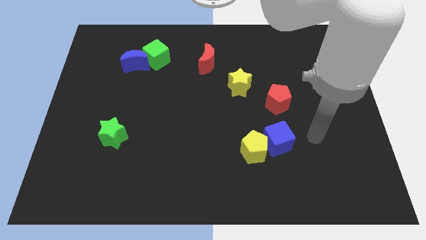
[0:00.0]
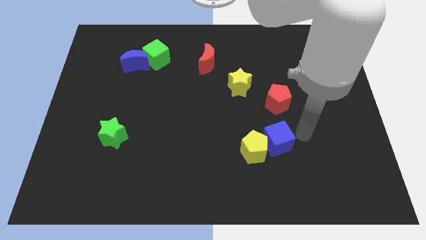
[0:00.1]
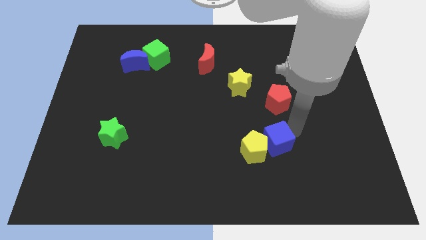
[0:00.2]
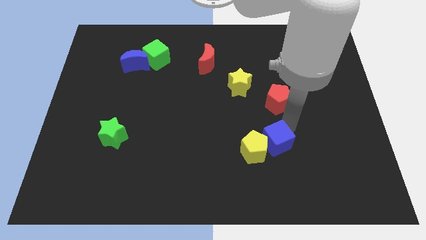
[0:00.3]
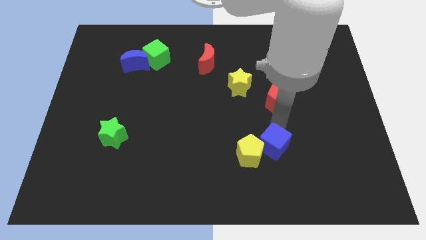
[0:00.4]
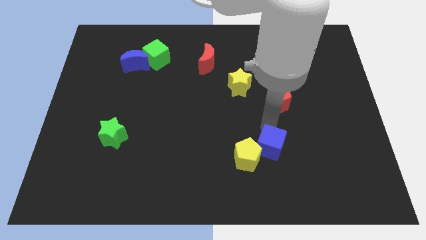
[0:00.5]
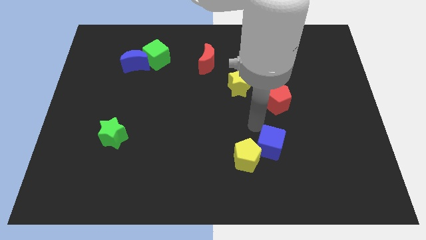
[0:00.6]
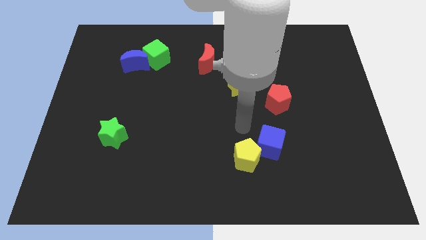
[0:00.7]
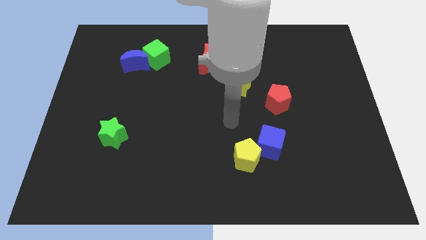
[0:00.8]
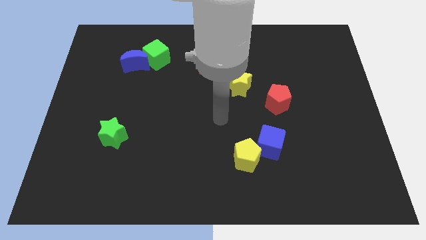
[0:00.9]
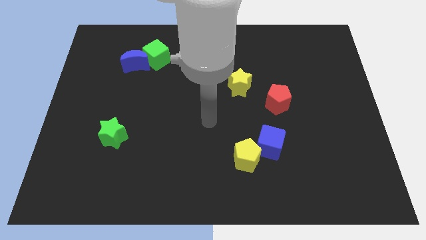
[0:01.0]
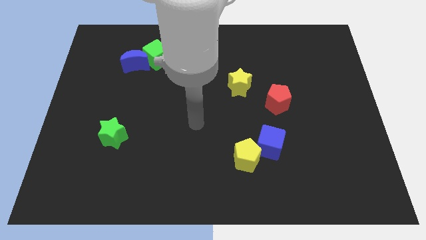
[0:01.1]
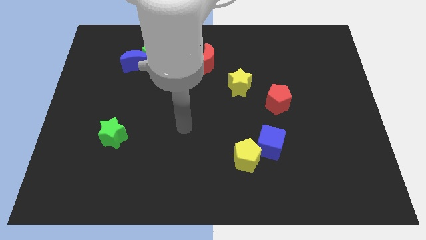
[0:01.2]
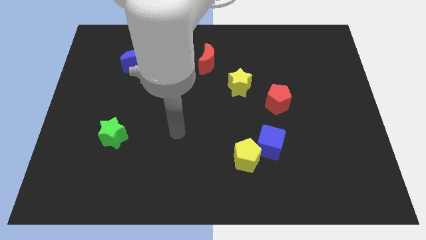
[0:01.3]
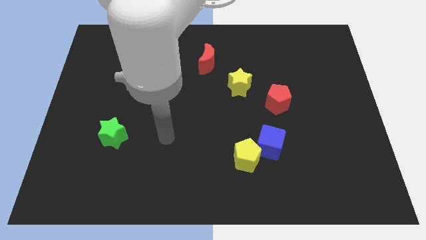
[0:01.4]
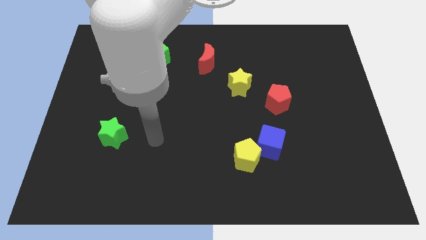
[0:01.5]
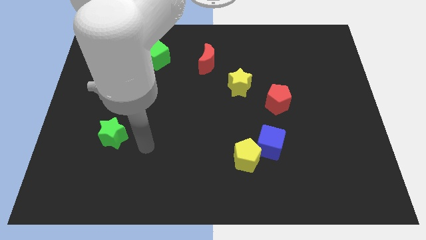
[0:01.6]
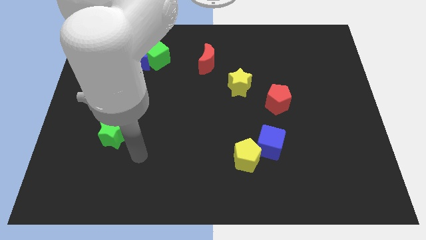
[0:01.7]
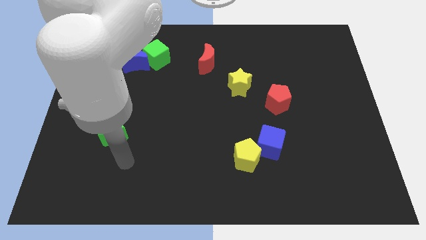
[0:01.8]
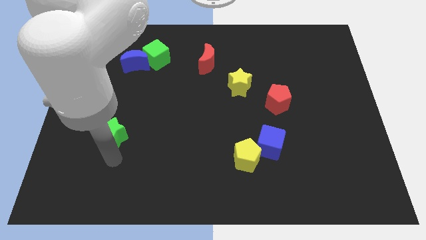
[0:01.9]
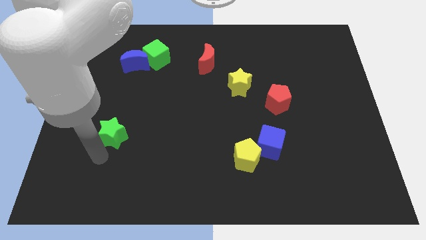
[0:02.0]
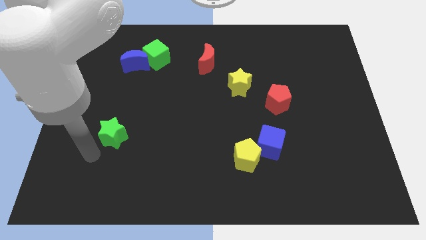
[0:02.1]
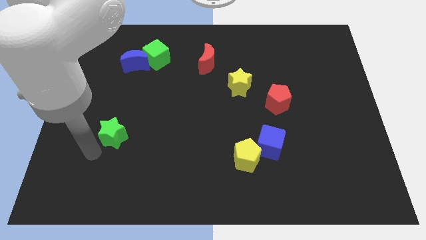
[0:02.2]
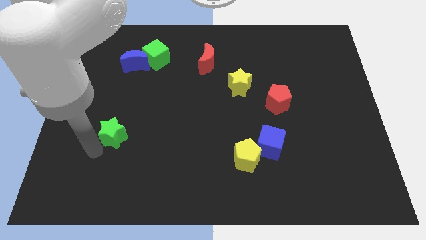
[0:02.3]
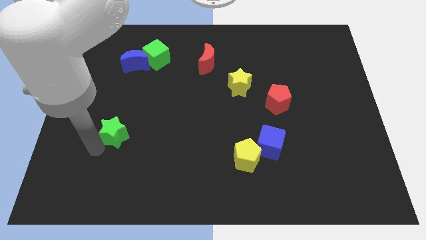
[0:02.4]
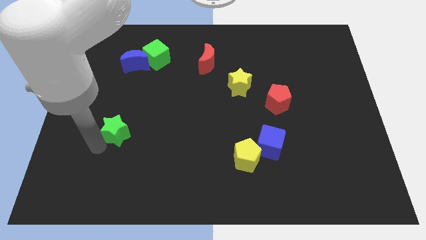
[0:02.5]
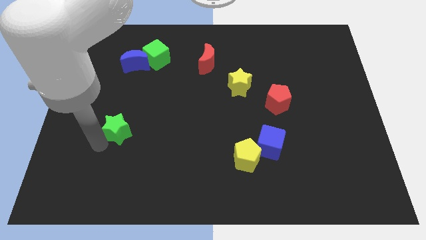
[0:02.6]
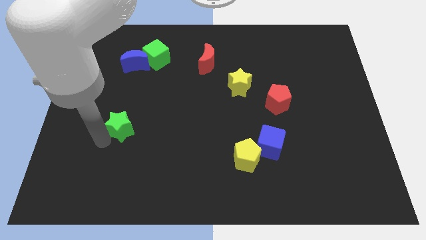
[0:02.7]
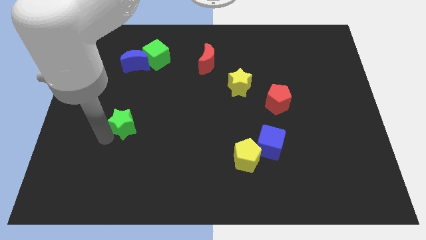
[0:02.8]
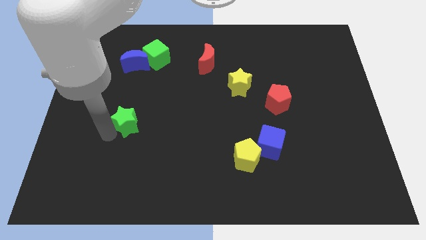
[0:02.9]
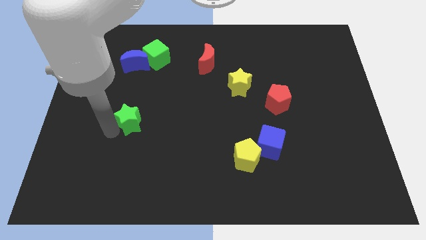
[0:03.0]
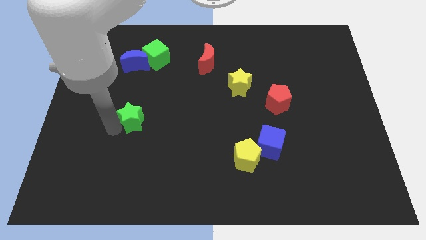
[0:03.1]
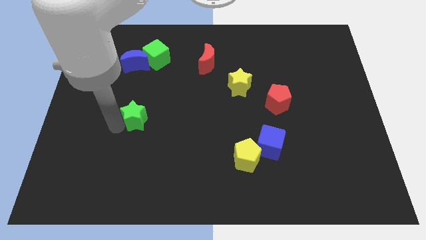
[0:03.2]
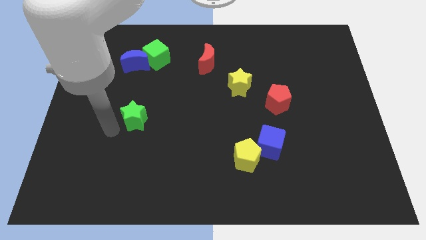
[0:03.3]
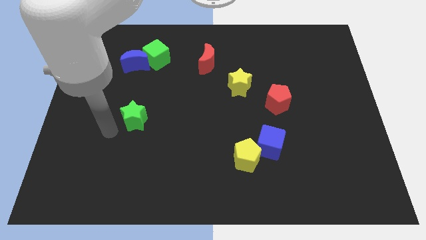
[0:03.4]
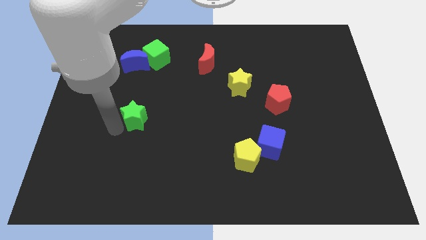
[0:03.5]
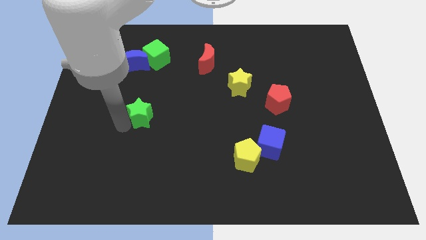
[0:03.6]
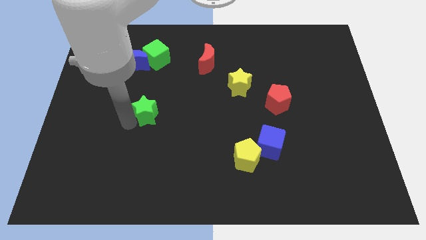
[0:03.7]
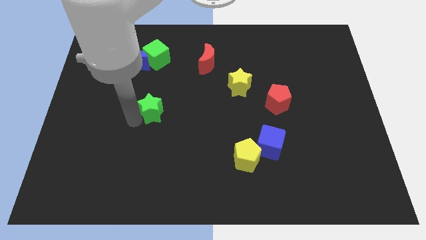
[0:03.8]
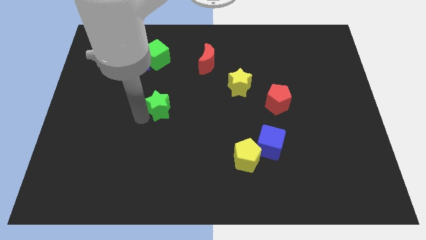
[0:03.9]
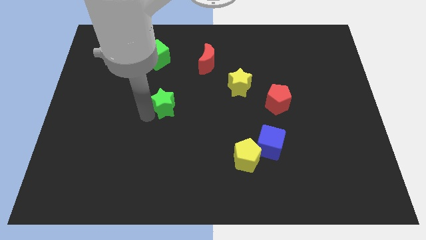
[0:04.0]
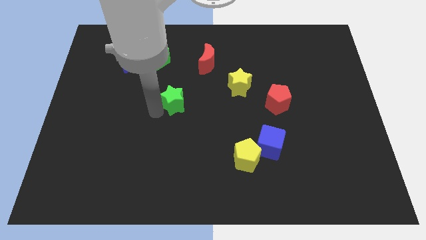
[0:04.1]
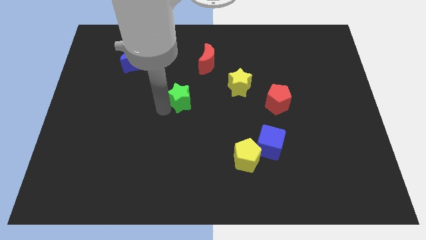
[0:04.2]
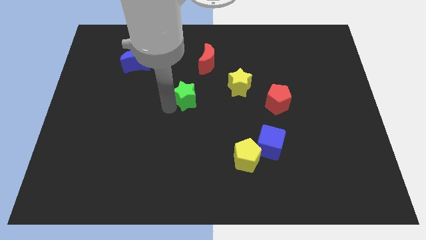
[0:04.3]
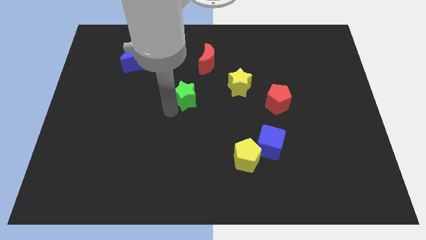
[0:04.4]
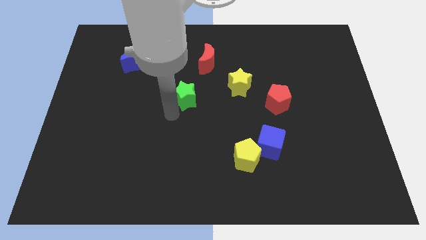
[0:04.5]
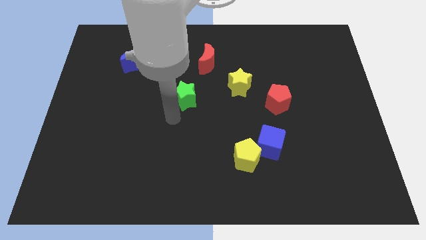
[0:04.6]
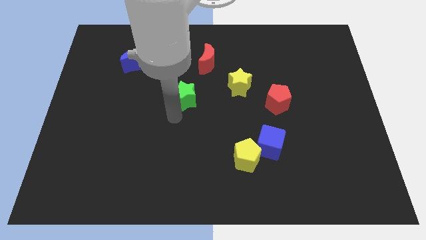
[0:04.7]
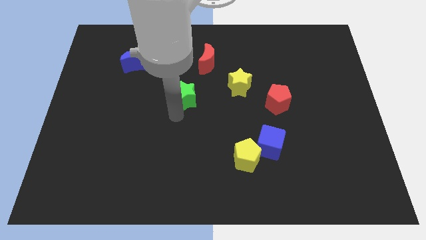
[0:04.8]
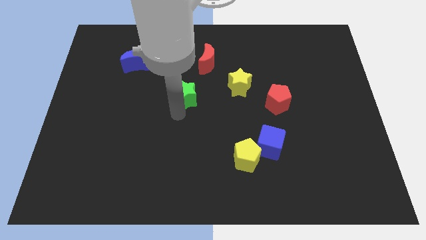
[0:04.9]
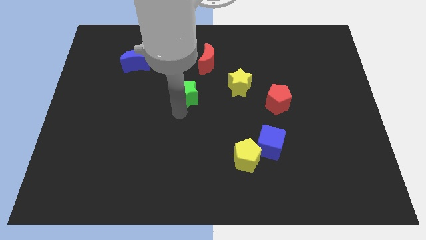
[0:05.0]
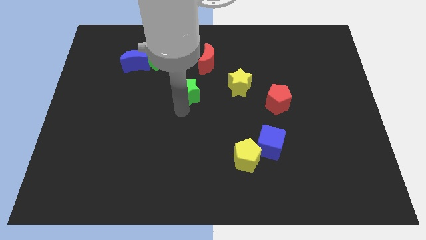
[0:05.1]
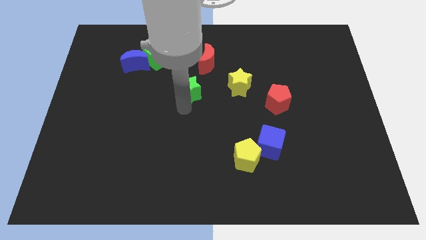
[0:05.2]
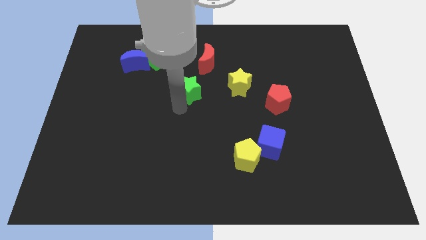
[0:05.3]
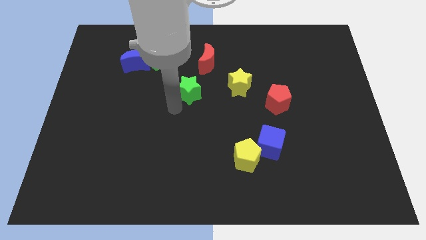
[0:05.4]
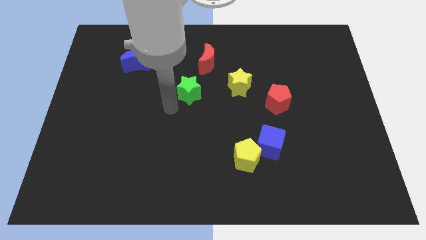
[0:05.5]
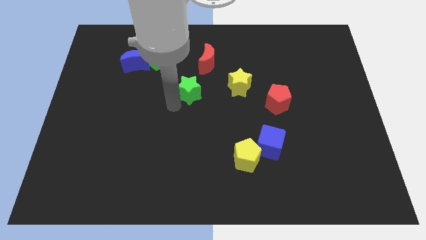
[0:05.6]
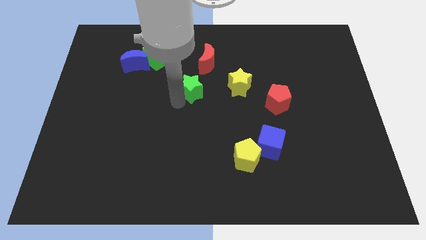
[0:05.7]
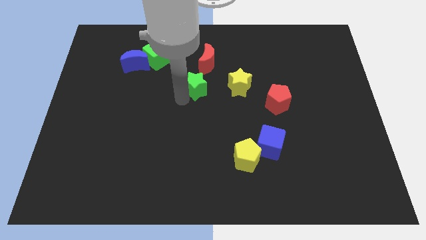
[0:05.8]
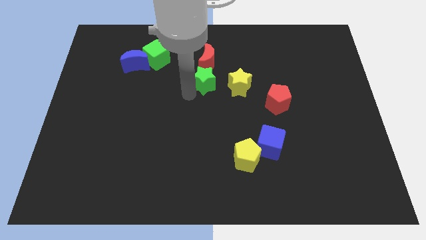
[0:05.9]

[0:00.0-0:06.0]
move the green star diagonally up and to the left of the yellow star

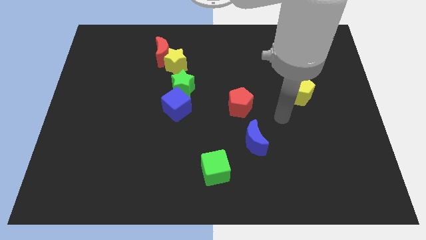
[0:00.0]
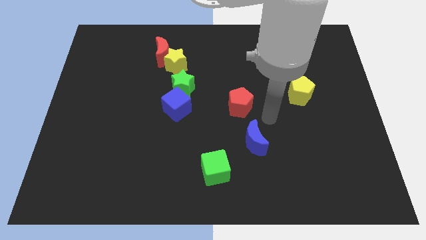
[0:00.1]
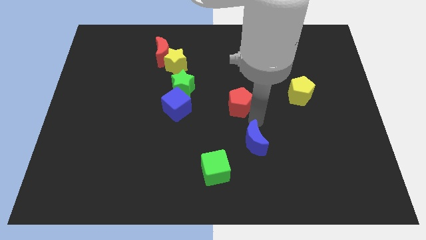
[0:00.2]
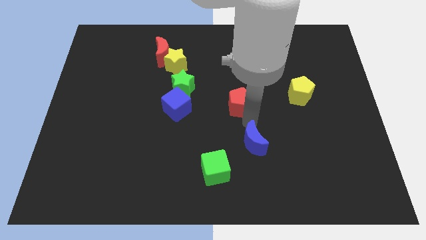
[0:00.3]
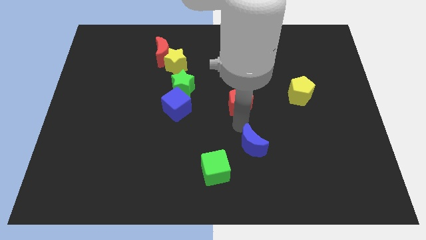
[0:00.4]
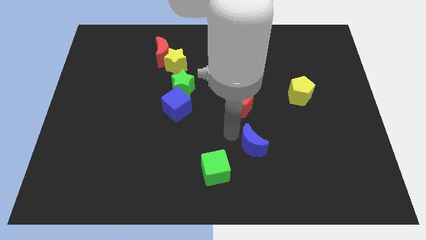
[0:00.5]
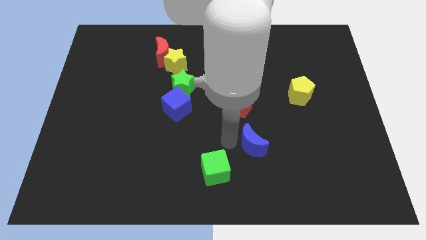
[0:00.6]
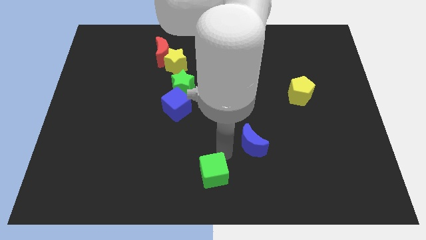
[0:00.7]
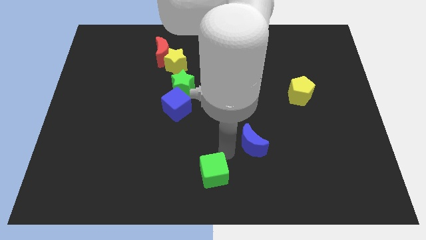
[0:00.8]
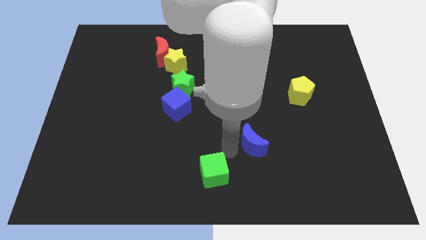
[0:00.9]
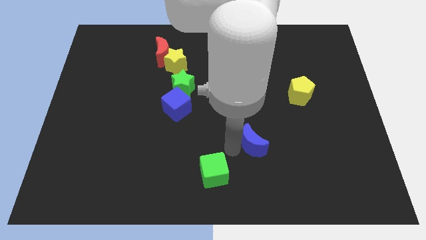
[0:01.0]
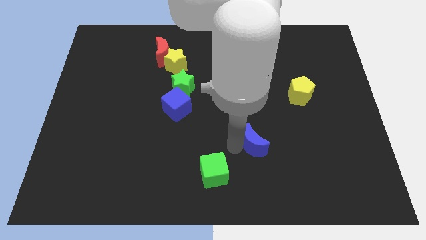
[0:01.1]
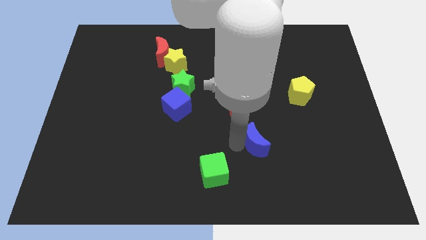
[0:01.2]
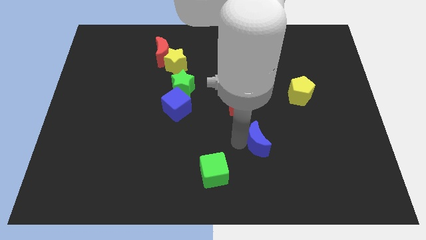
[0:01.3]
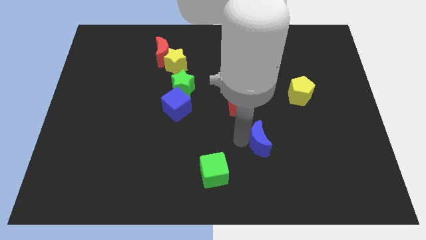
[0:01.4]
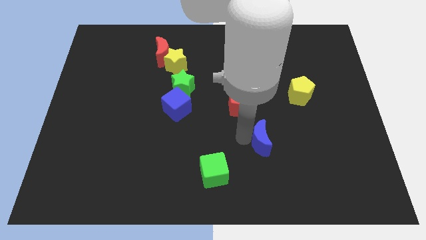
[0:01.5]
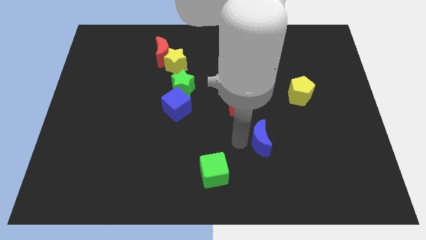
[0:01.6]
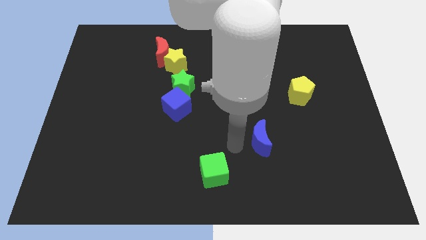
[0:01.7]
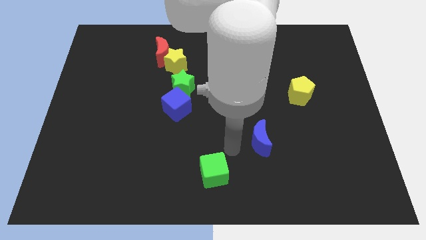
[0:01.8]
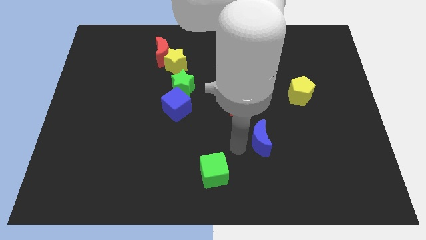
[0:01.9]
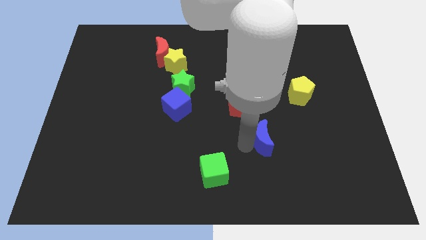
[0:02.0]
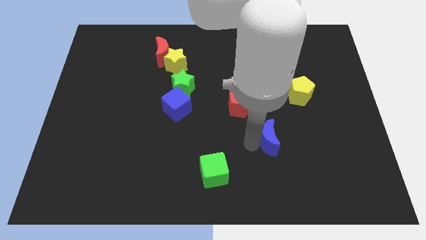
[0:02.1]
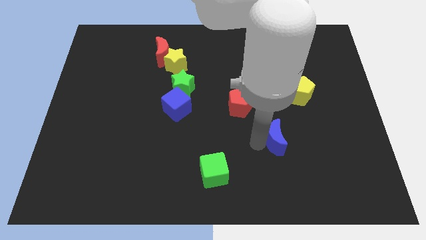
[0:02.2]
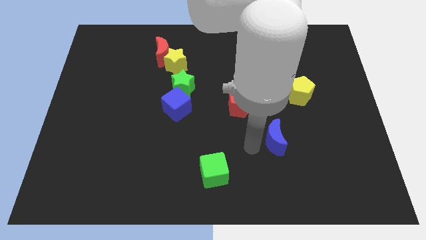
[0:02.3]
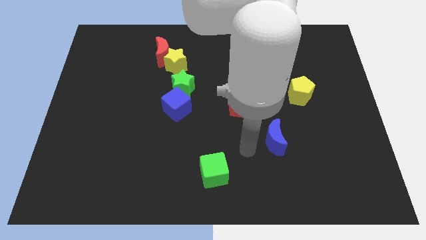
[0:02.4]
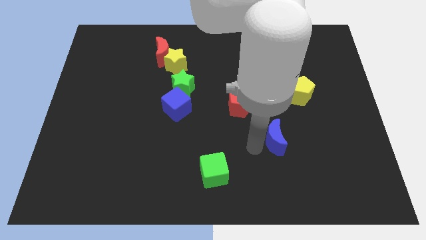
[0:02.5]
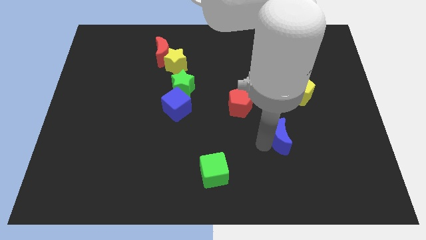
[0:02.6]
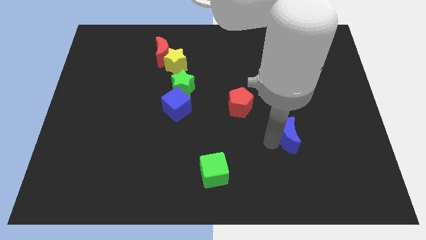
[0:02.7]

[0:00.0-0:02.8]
move the blue moon below the yellow pentagon
